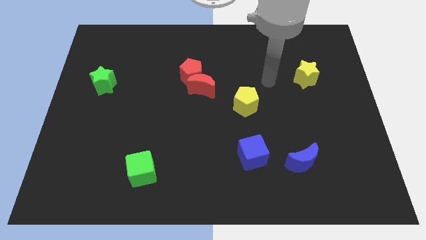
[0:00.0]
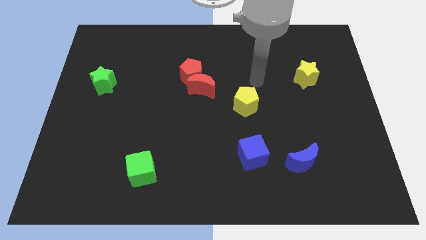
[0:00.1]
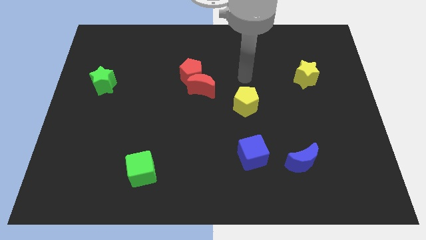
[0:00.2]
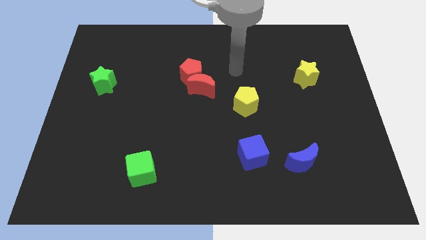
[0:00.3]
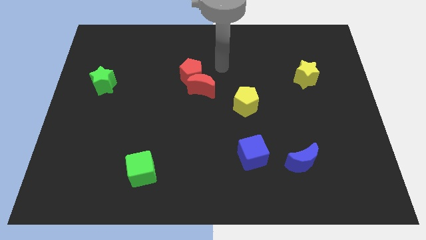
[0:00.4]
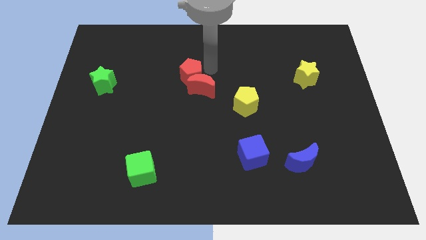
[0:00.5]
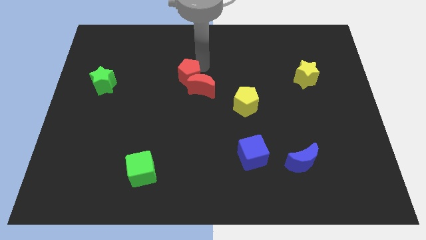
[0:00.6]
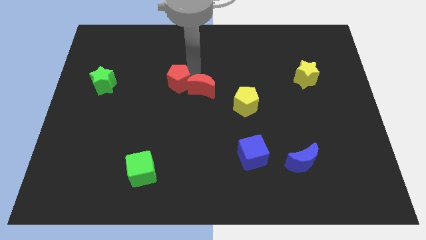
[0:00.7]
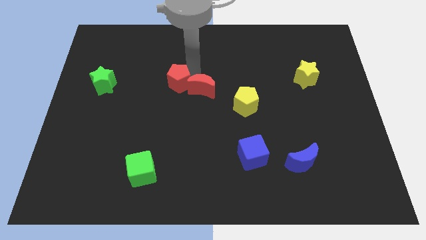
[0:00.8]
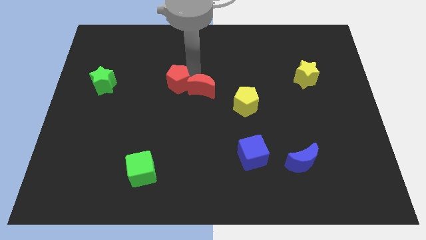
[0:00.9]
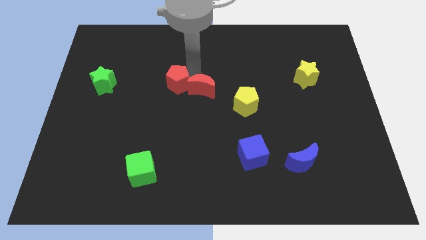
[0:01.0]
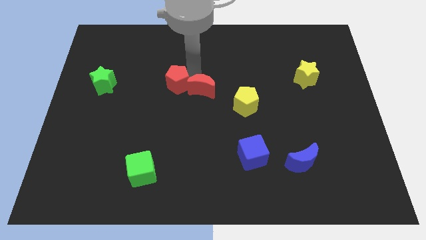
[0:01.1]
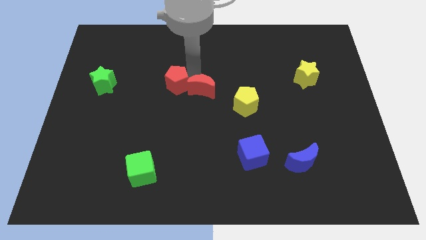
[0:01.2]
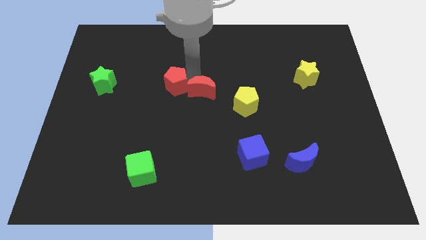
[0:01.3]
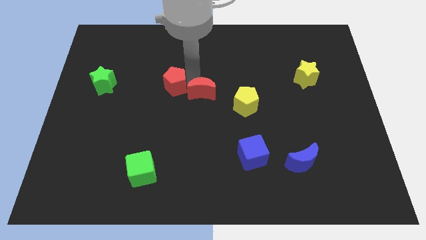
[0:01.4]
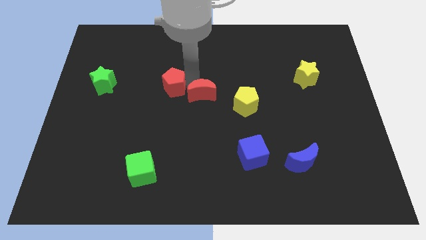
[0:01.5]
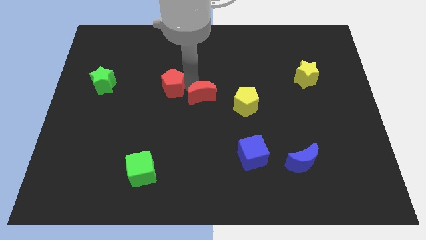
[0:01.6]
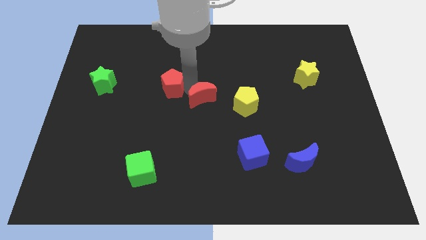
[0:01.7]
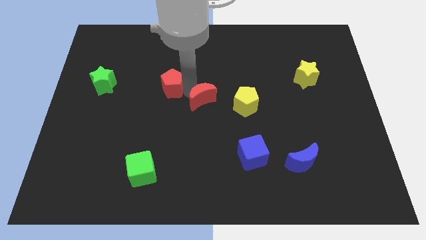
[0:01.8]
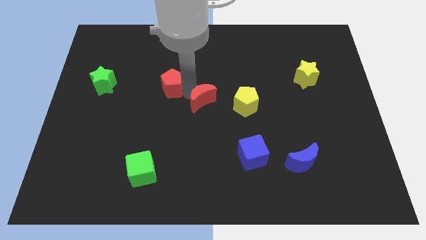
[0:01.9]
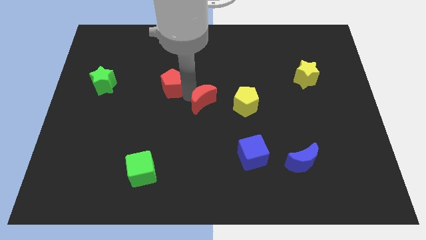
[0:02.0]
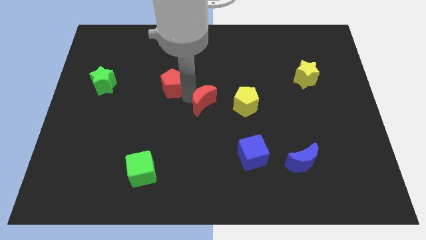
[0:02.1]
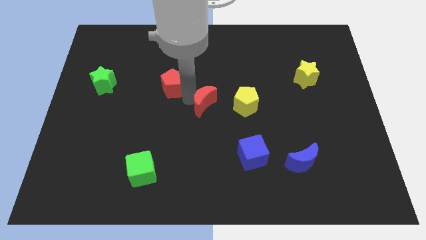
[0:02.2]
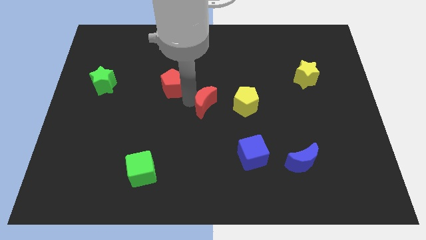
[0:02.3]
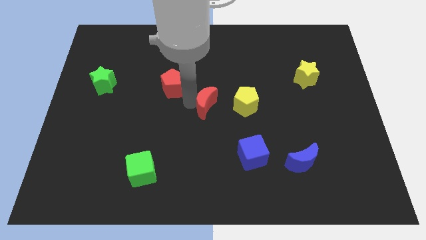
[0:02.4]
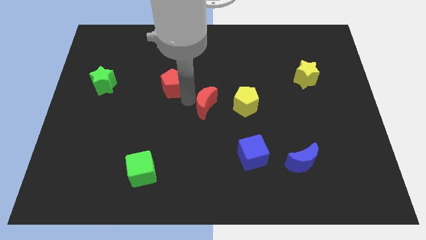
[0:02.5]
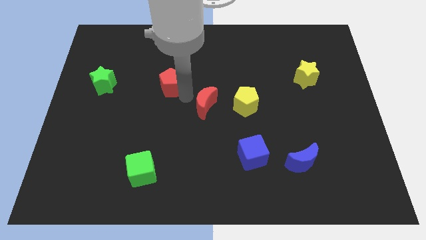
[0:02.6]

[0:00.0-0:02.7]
pull the red moon apart from the red pentagon

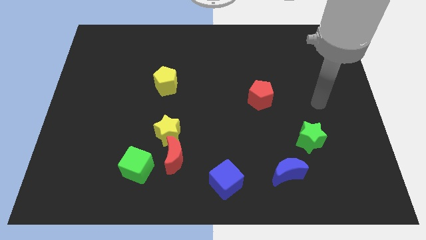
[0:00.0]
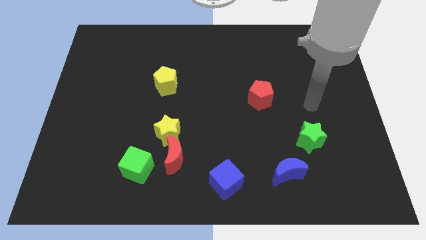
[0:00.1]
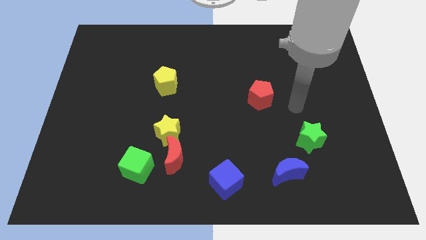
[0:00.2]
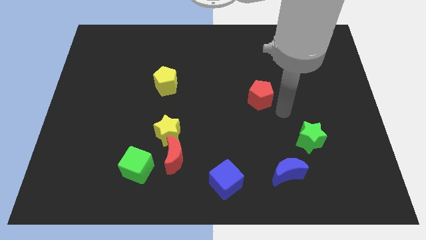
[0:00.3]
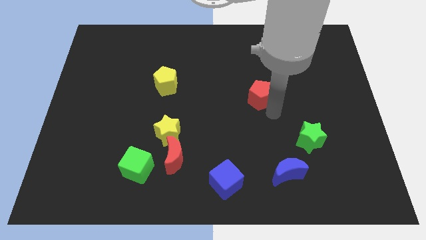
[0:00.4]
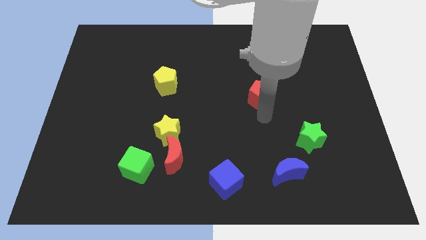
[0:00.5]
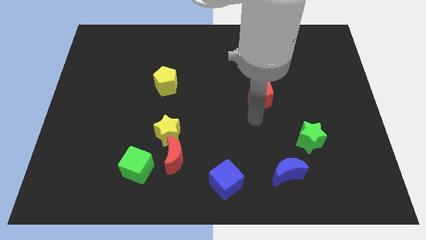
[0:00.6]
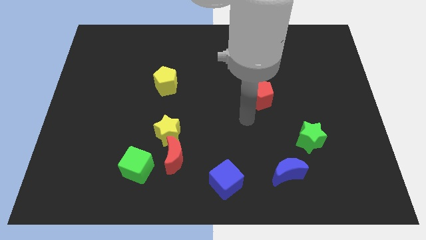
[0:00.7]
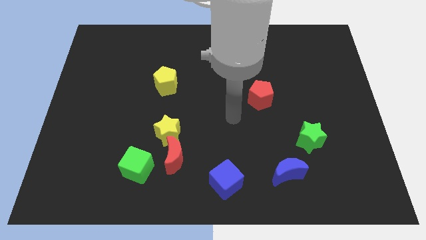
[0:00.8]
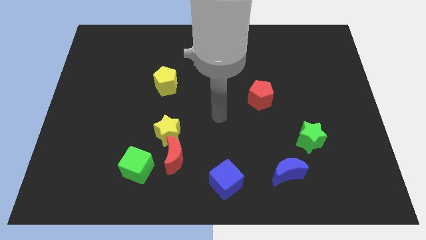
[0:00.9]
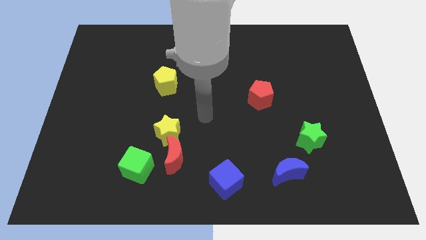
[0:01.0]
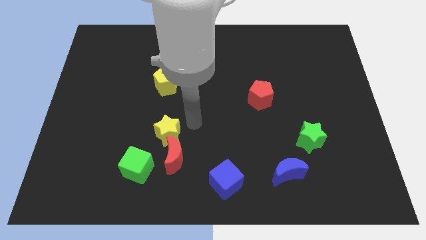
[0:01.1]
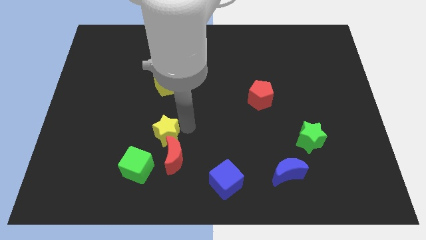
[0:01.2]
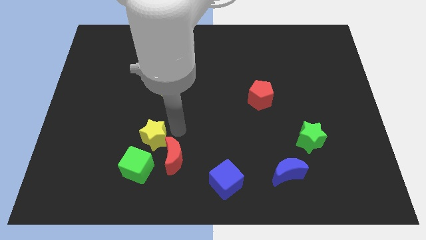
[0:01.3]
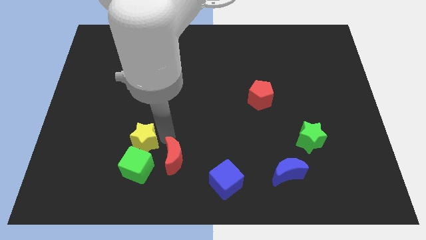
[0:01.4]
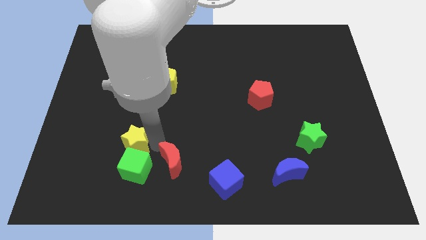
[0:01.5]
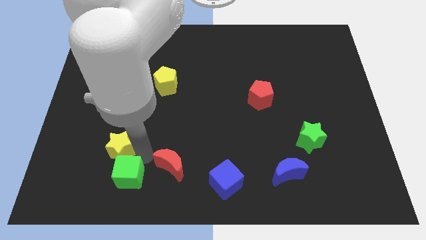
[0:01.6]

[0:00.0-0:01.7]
pull the red moon apart from the yellow star and green cube

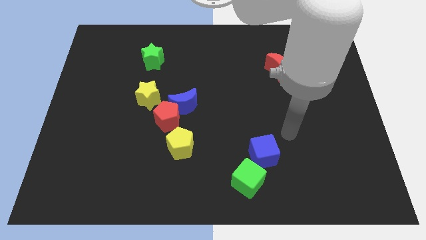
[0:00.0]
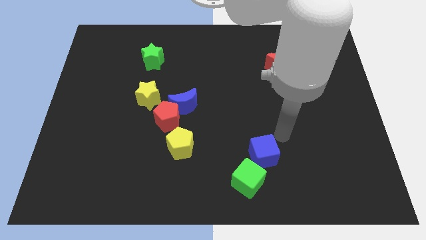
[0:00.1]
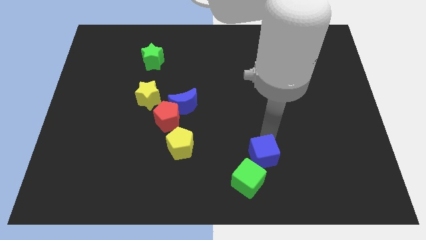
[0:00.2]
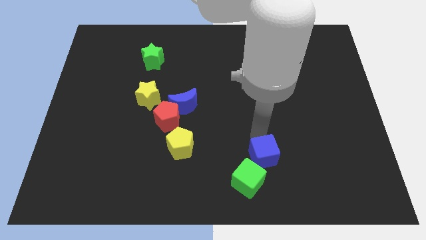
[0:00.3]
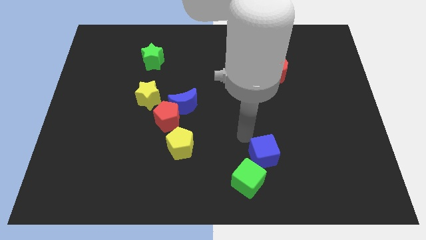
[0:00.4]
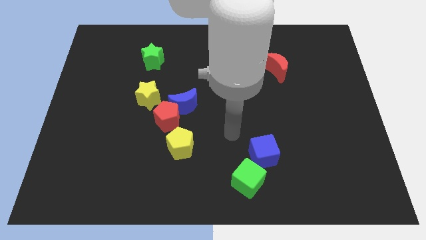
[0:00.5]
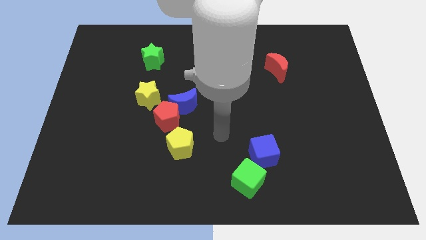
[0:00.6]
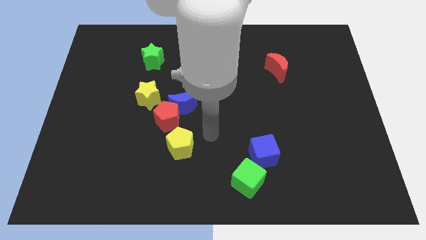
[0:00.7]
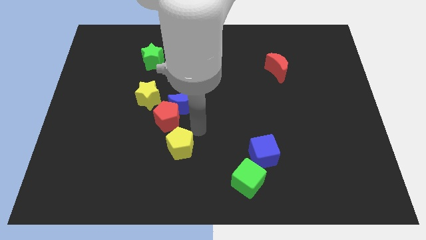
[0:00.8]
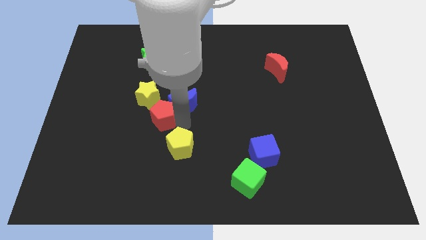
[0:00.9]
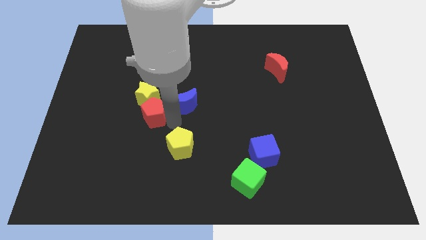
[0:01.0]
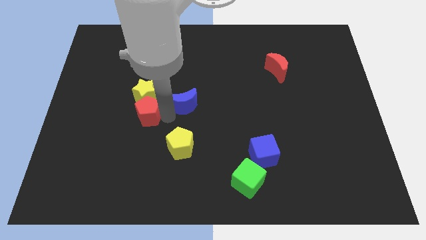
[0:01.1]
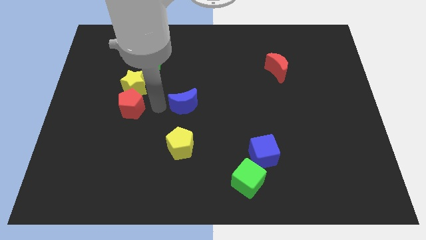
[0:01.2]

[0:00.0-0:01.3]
pull the blue moon apart from the red pentagon and yellow star

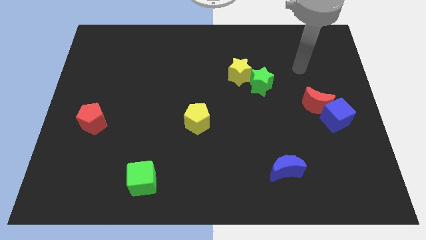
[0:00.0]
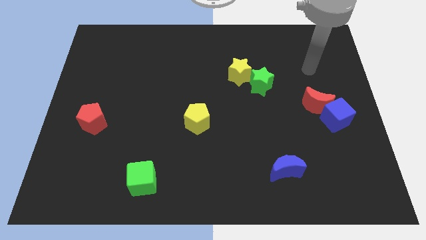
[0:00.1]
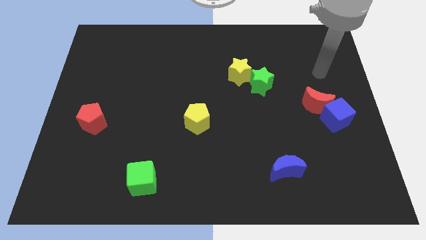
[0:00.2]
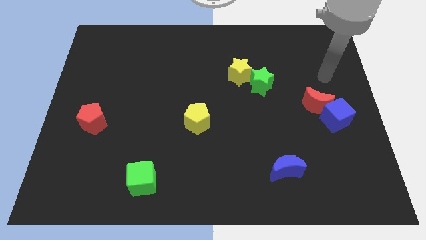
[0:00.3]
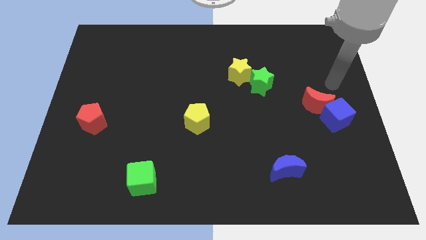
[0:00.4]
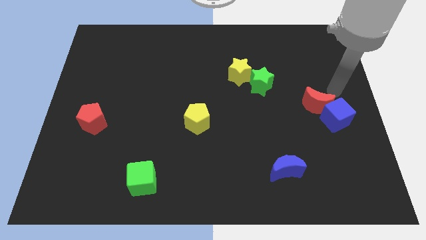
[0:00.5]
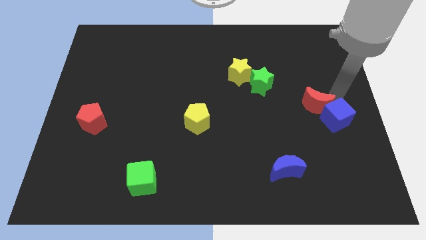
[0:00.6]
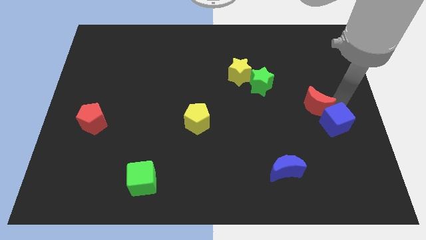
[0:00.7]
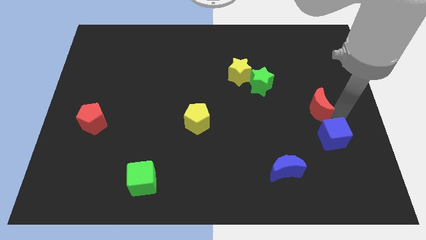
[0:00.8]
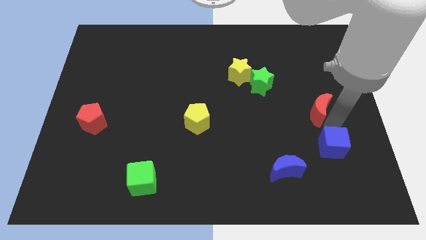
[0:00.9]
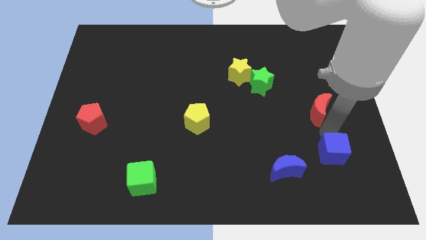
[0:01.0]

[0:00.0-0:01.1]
pull the red moon apart from the blue cube

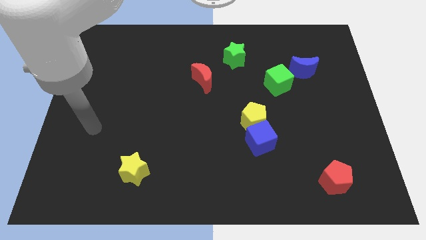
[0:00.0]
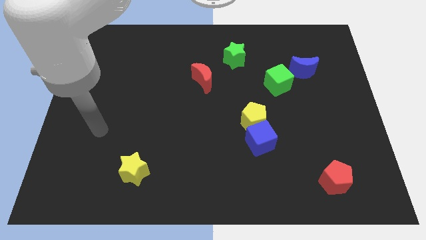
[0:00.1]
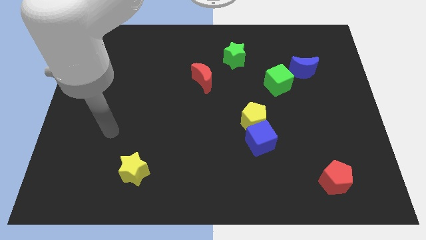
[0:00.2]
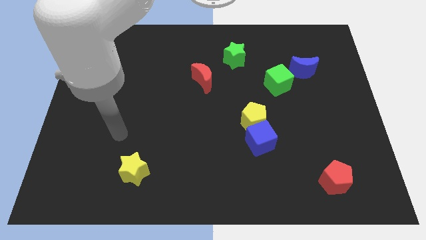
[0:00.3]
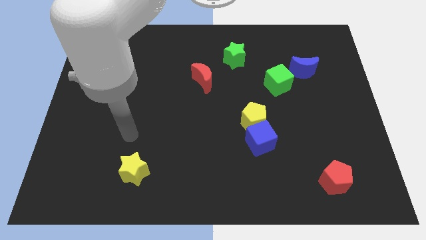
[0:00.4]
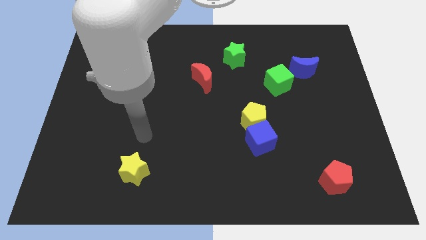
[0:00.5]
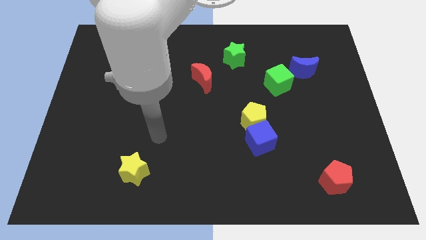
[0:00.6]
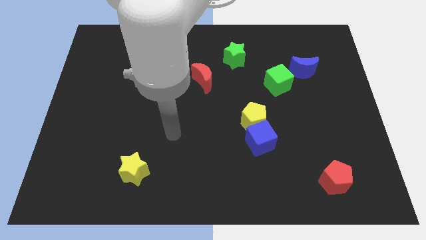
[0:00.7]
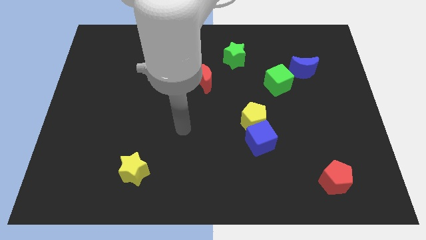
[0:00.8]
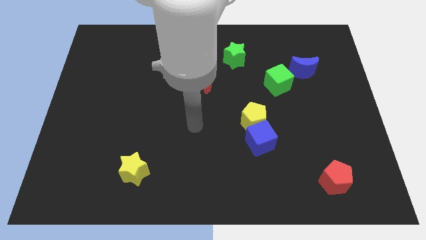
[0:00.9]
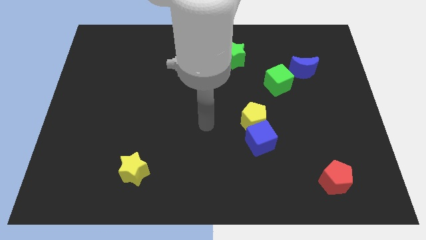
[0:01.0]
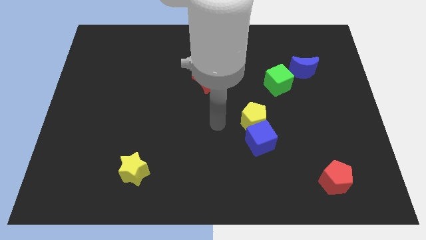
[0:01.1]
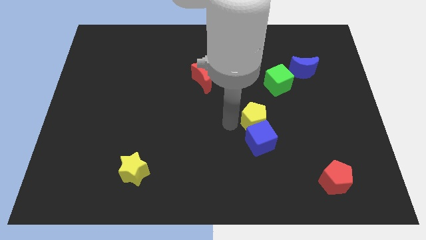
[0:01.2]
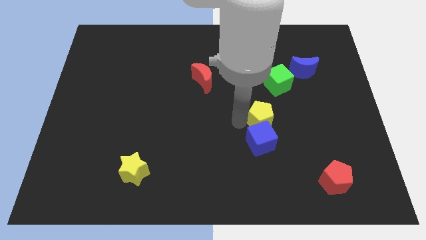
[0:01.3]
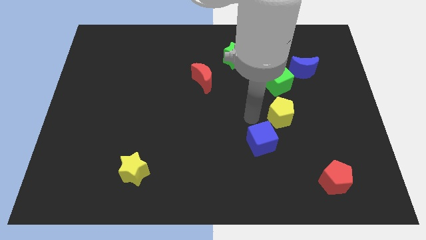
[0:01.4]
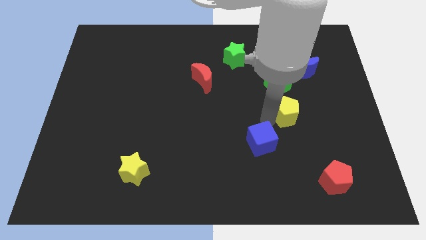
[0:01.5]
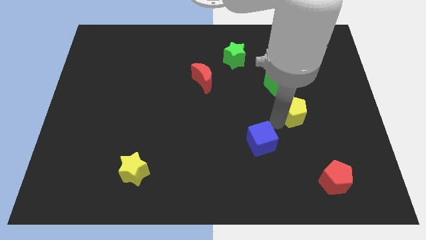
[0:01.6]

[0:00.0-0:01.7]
pull the blue cube apart from the yellow pentagon

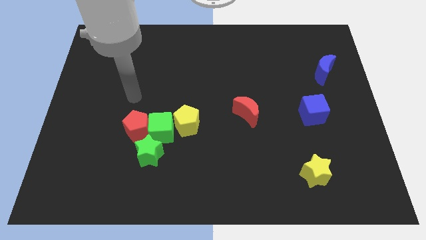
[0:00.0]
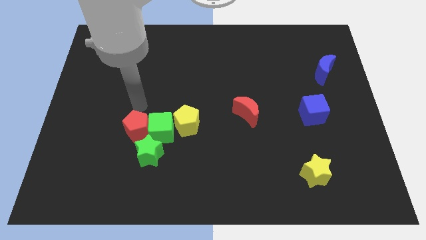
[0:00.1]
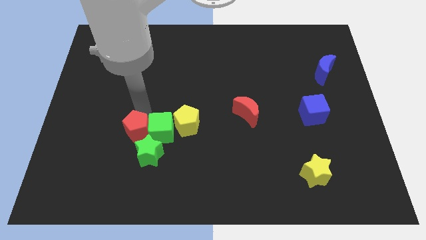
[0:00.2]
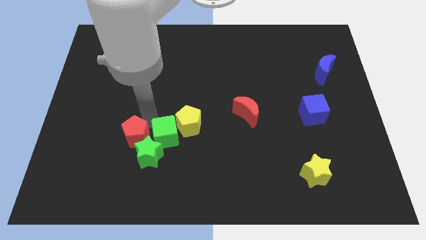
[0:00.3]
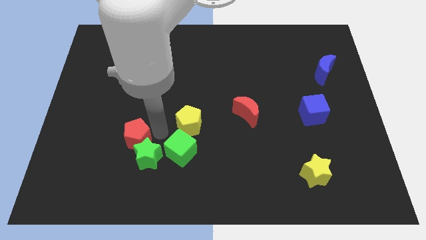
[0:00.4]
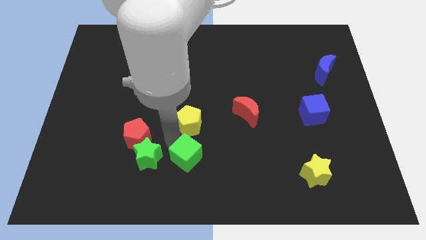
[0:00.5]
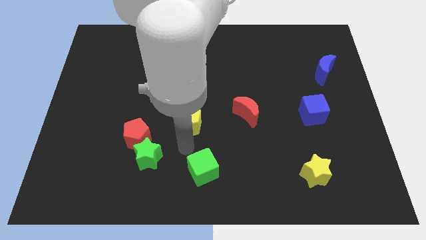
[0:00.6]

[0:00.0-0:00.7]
pull the yellow pentagon apart from the green cube

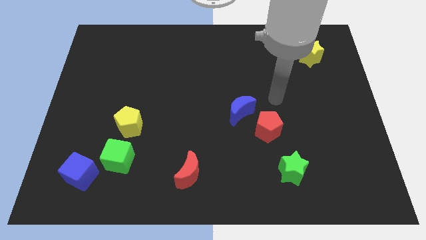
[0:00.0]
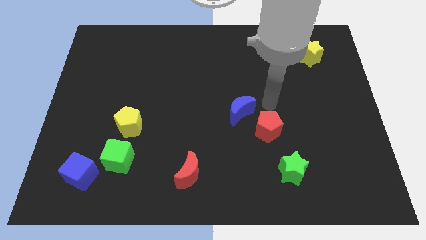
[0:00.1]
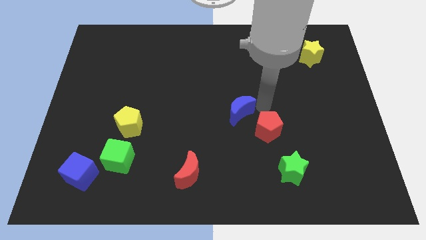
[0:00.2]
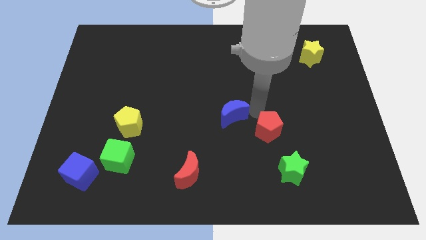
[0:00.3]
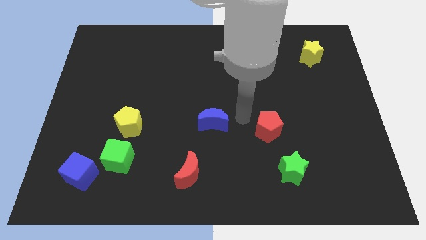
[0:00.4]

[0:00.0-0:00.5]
pull the red pentagon apart from the blue moon
